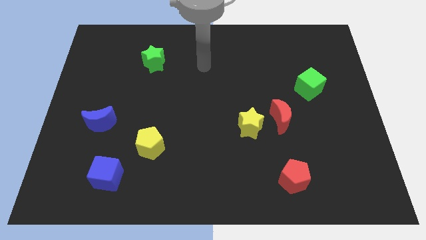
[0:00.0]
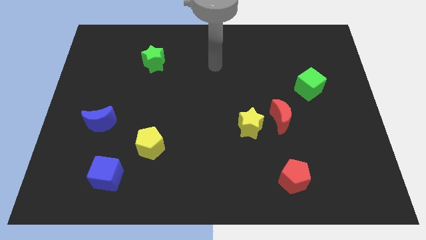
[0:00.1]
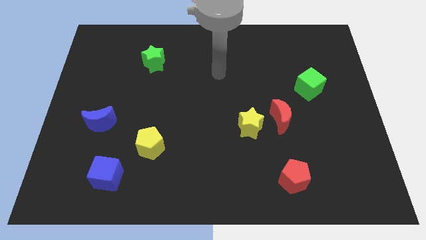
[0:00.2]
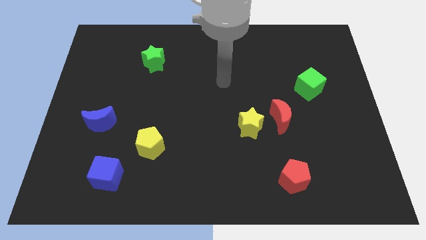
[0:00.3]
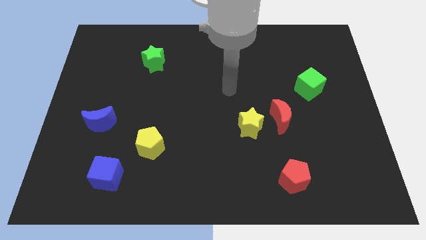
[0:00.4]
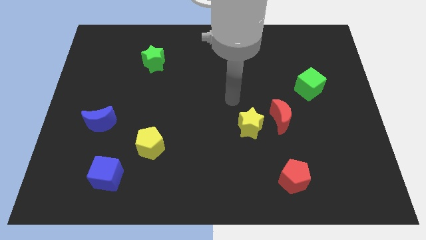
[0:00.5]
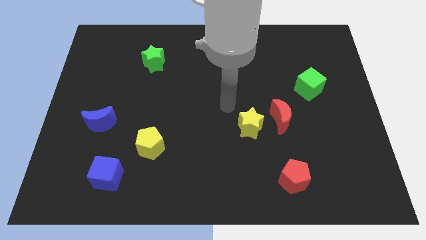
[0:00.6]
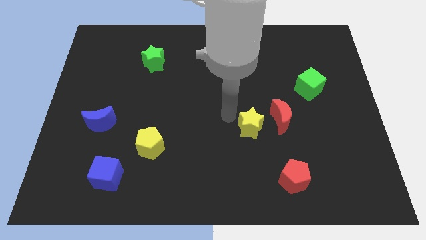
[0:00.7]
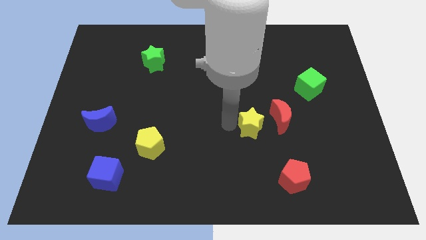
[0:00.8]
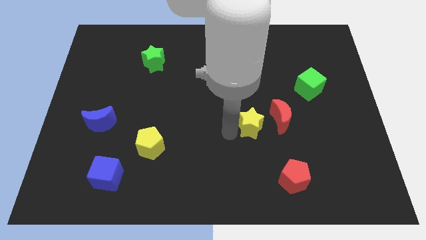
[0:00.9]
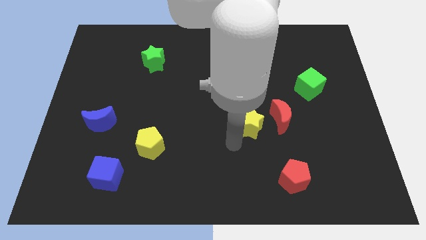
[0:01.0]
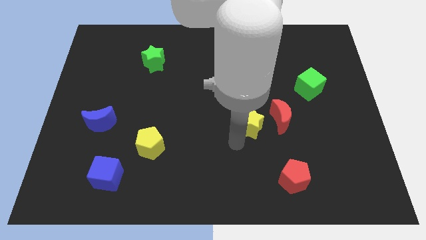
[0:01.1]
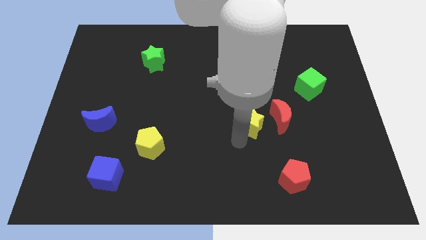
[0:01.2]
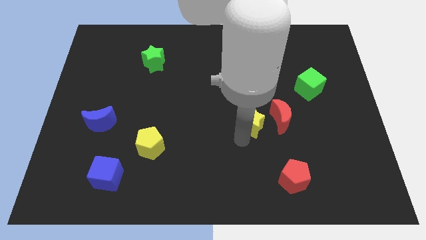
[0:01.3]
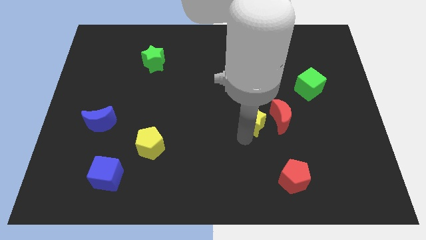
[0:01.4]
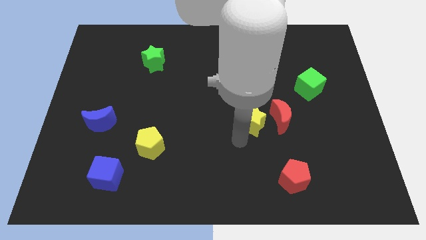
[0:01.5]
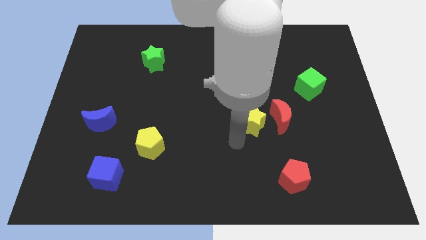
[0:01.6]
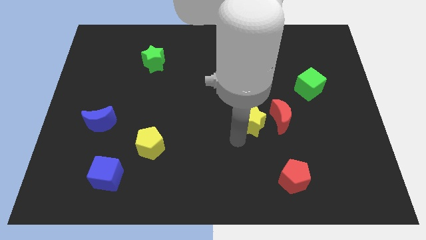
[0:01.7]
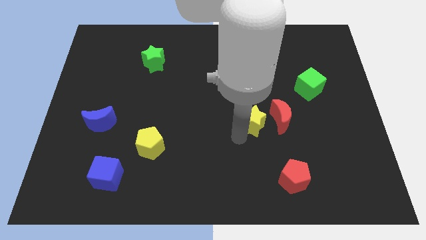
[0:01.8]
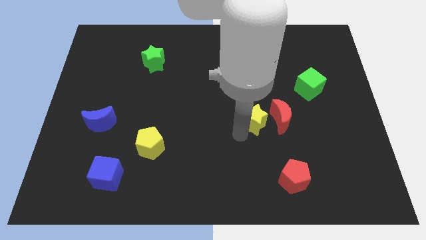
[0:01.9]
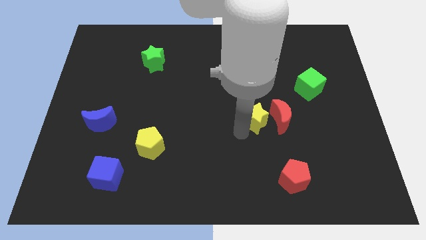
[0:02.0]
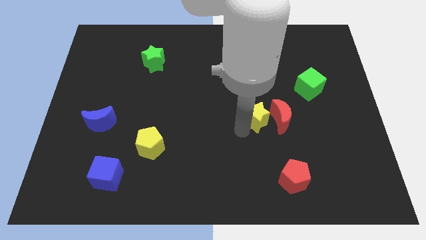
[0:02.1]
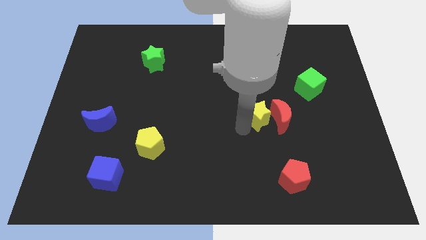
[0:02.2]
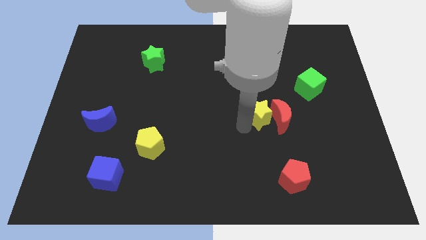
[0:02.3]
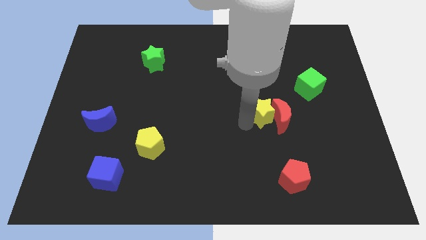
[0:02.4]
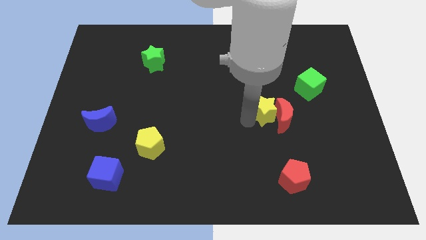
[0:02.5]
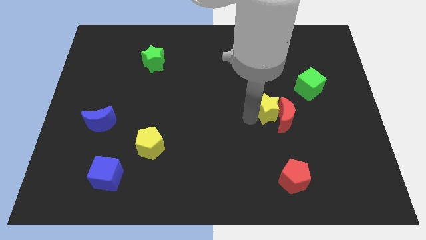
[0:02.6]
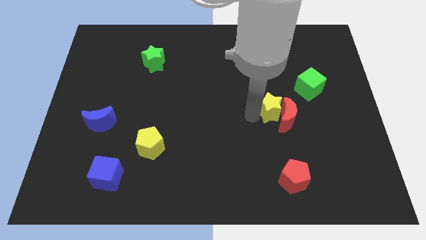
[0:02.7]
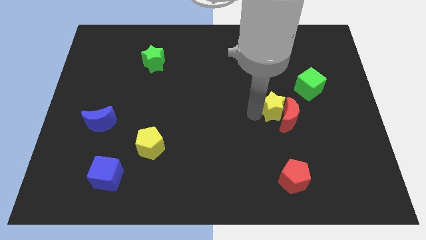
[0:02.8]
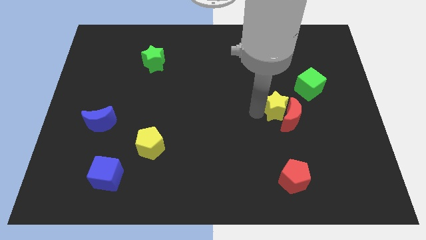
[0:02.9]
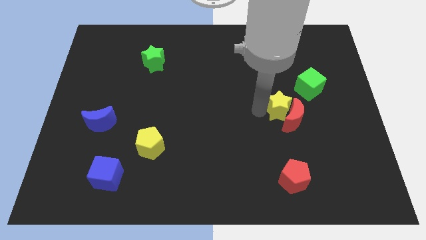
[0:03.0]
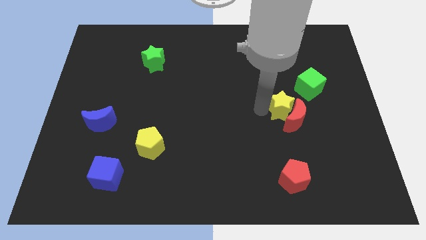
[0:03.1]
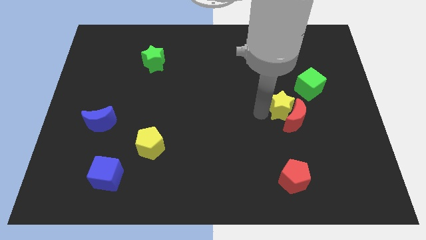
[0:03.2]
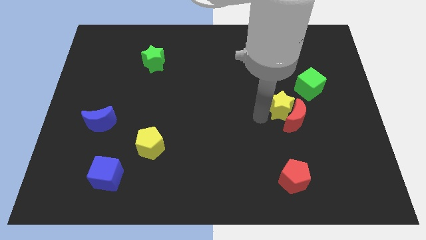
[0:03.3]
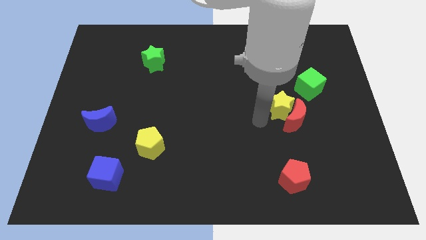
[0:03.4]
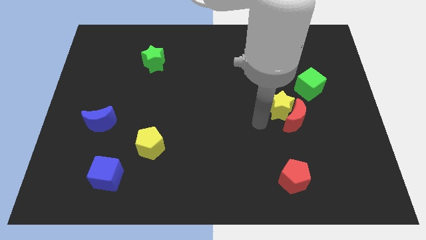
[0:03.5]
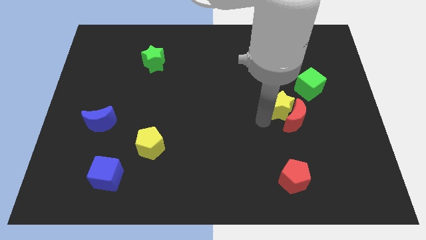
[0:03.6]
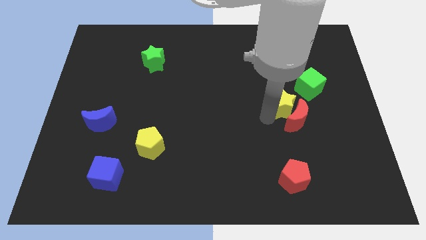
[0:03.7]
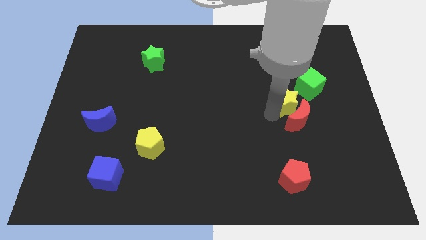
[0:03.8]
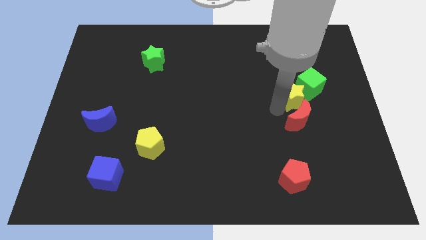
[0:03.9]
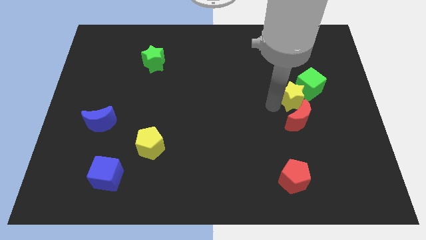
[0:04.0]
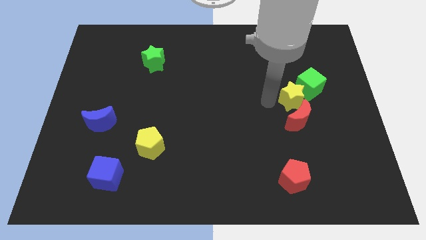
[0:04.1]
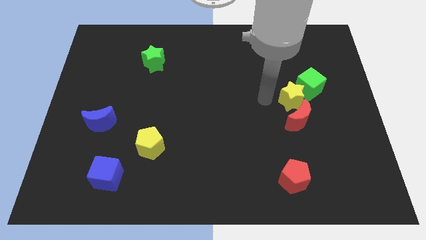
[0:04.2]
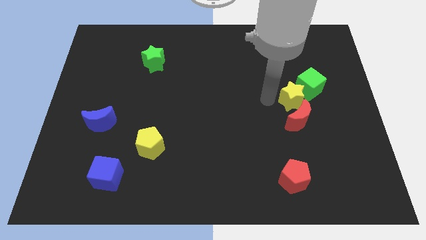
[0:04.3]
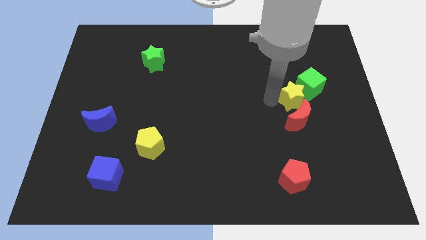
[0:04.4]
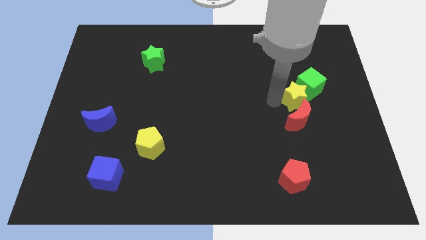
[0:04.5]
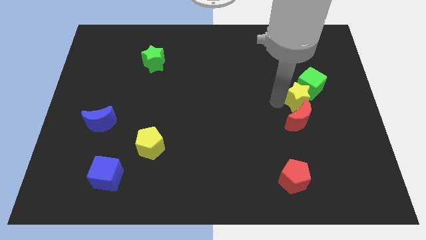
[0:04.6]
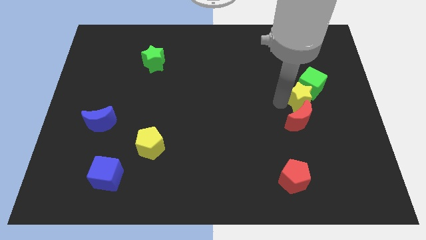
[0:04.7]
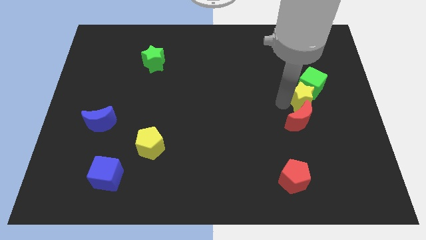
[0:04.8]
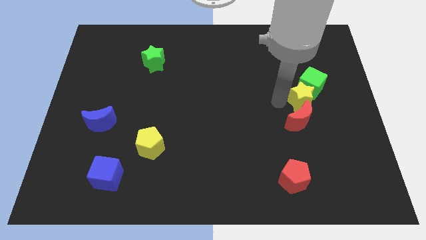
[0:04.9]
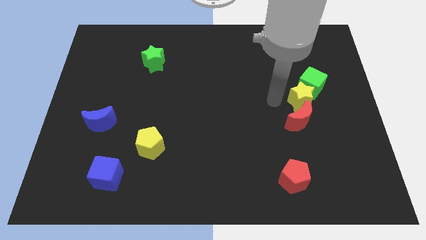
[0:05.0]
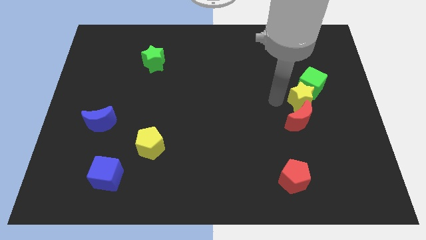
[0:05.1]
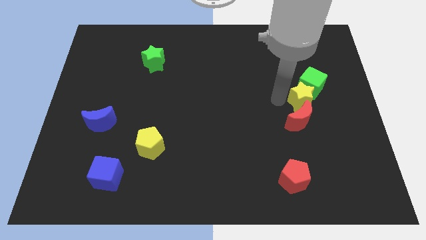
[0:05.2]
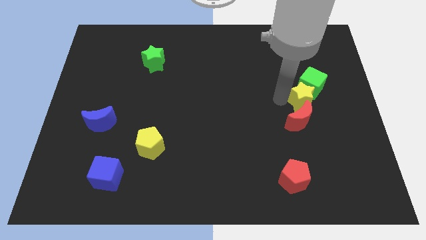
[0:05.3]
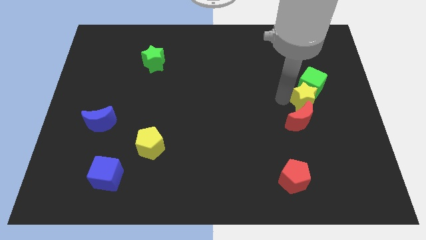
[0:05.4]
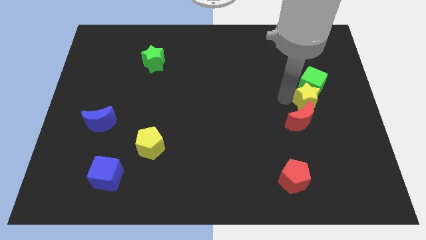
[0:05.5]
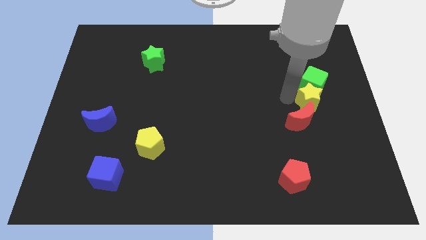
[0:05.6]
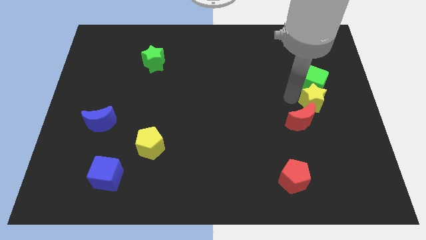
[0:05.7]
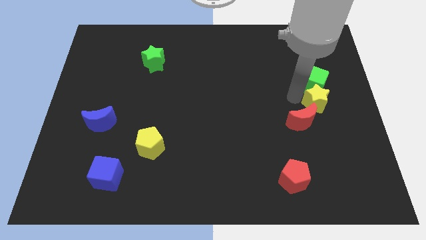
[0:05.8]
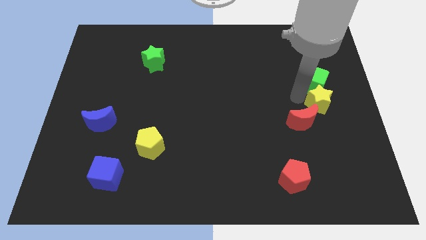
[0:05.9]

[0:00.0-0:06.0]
put the yellow star to the right side of the board
